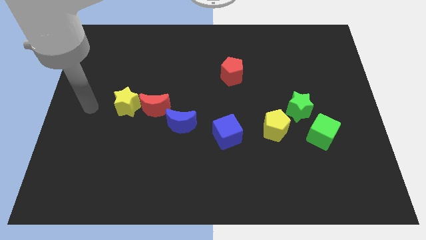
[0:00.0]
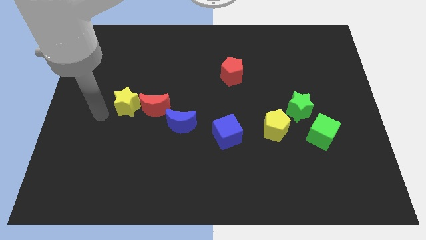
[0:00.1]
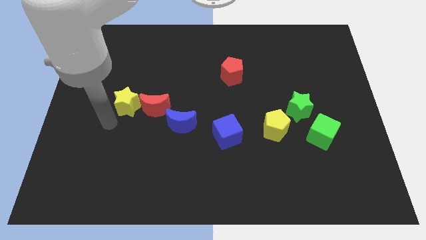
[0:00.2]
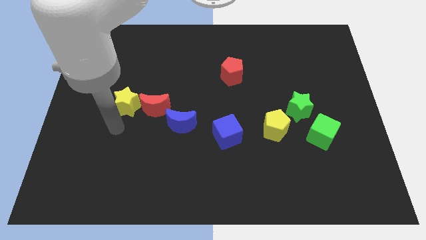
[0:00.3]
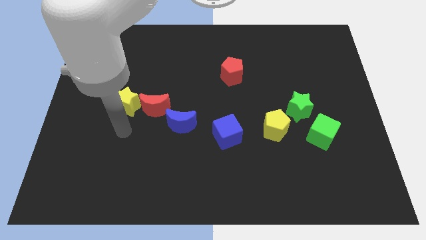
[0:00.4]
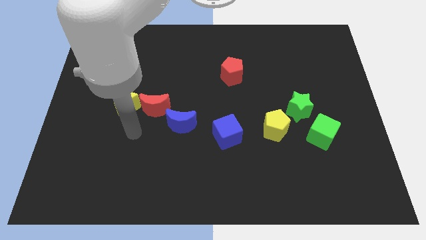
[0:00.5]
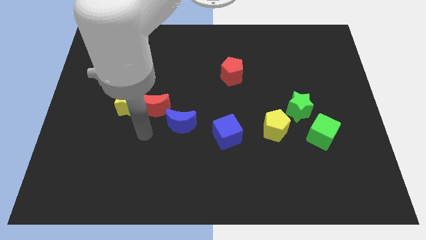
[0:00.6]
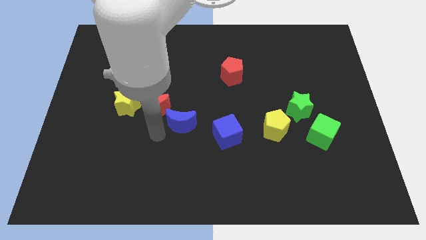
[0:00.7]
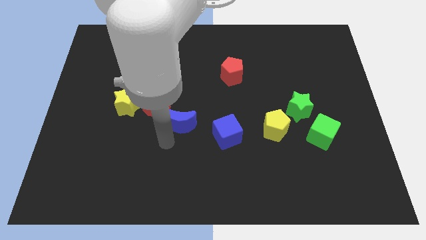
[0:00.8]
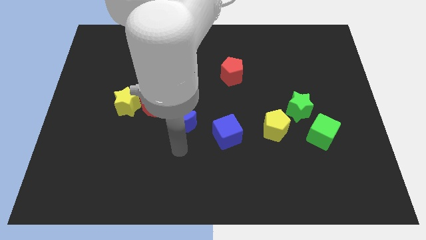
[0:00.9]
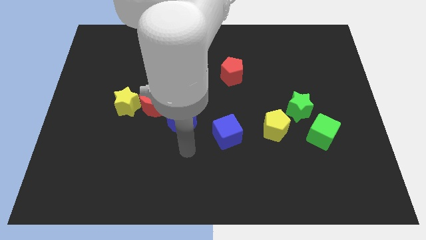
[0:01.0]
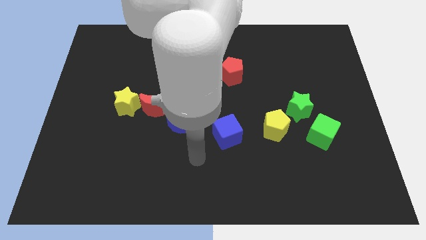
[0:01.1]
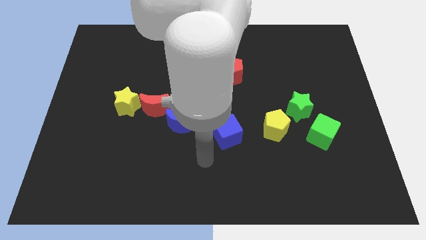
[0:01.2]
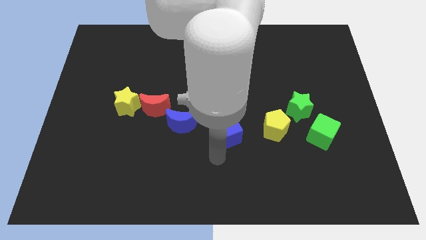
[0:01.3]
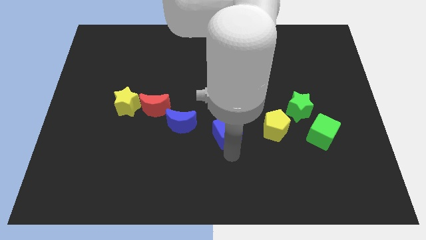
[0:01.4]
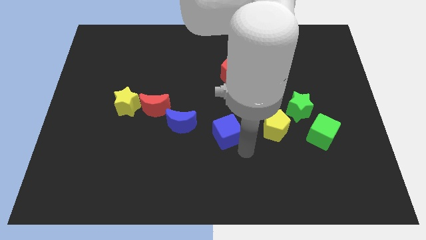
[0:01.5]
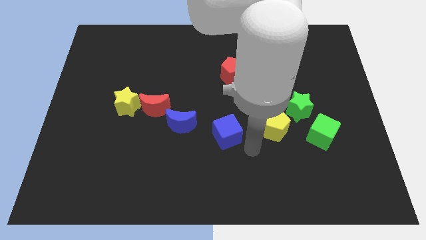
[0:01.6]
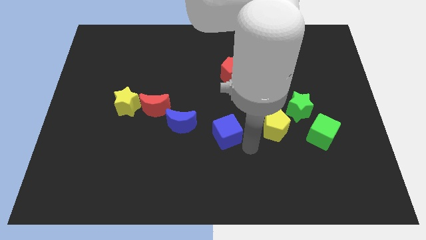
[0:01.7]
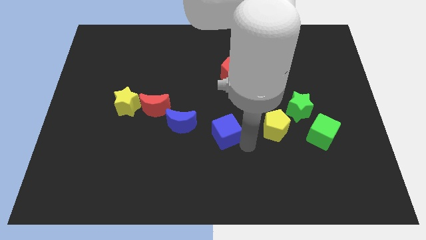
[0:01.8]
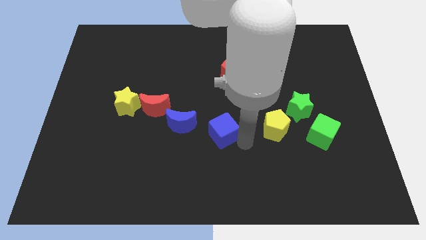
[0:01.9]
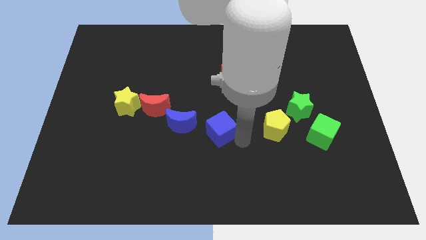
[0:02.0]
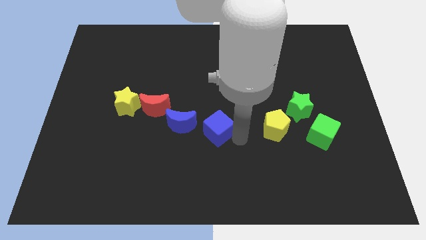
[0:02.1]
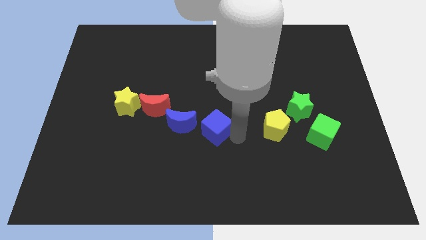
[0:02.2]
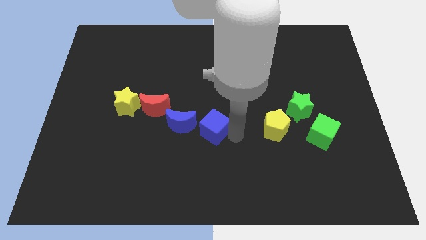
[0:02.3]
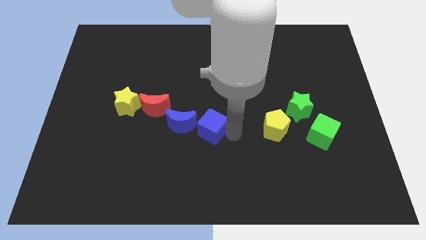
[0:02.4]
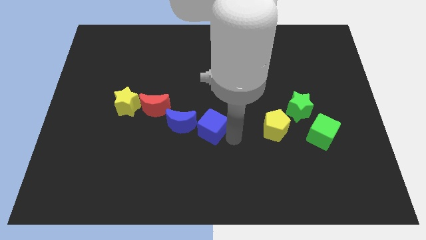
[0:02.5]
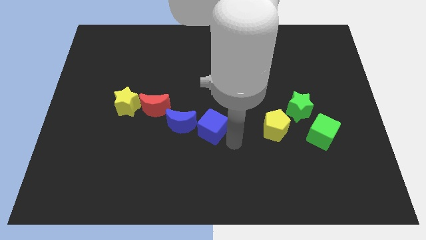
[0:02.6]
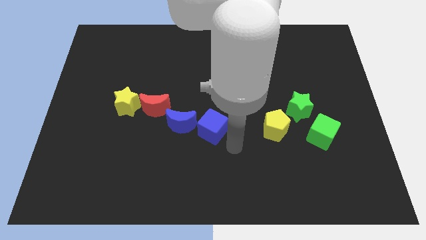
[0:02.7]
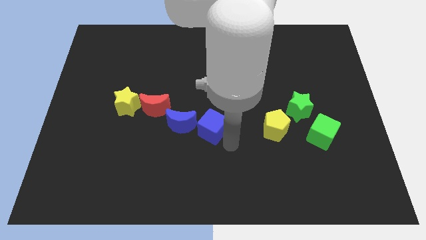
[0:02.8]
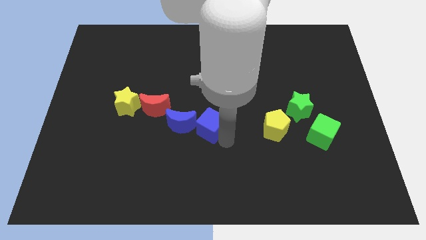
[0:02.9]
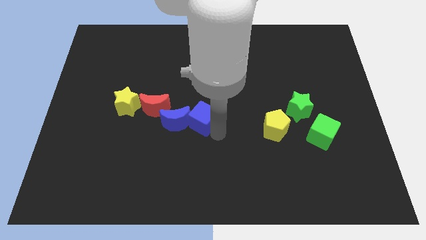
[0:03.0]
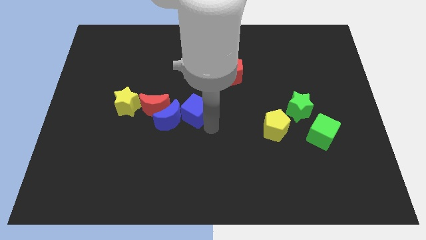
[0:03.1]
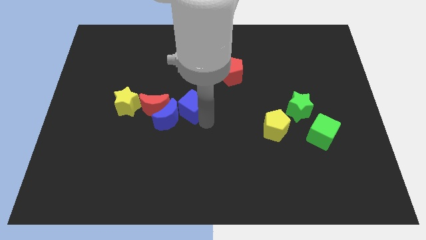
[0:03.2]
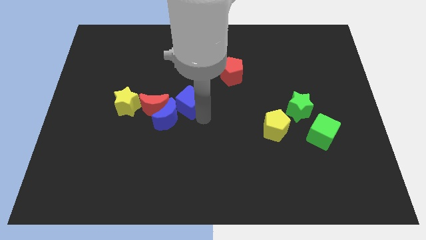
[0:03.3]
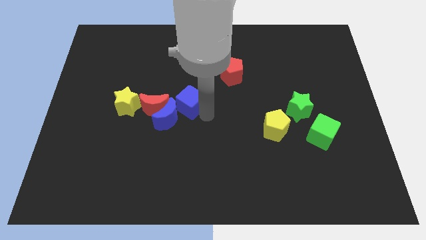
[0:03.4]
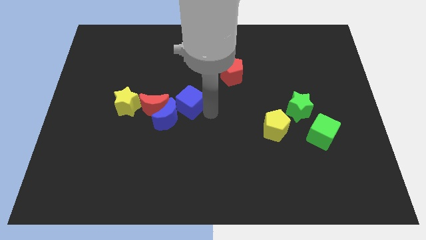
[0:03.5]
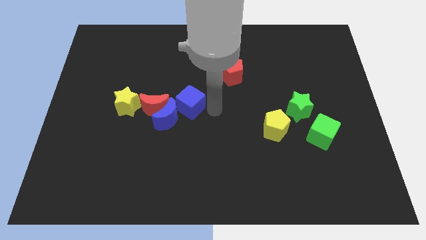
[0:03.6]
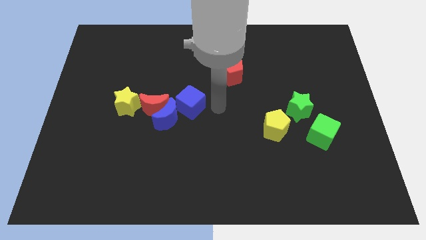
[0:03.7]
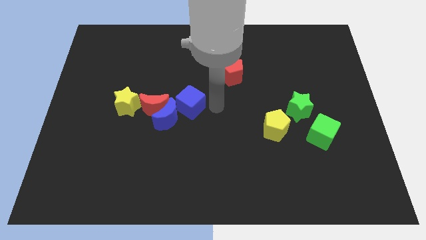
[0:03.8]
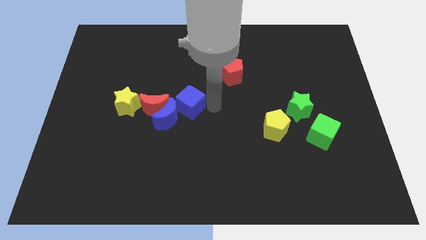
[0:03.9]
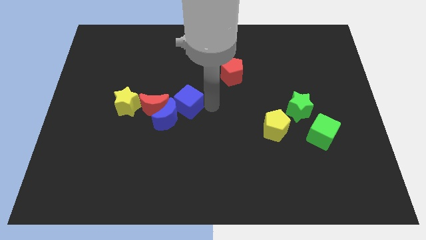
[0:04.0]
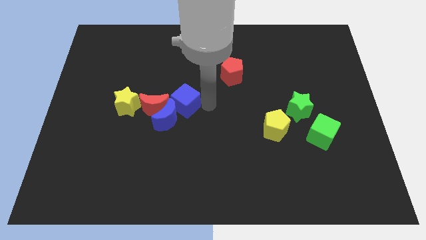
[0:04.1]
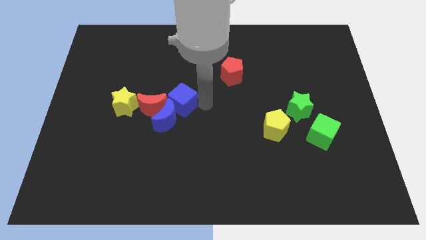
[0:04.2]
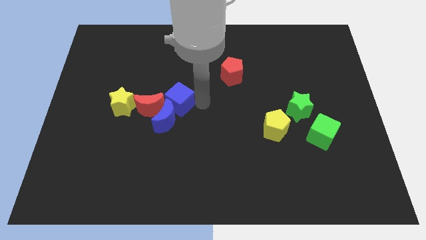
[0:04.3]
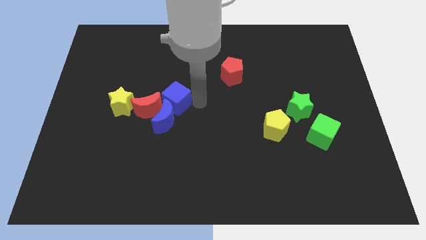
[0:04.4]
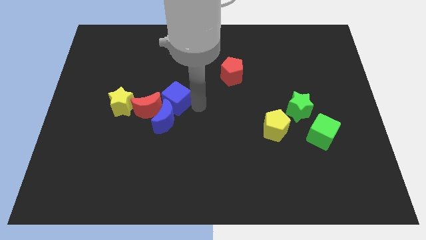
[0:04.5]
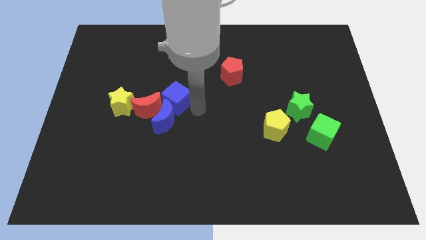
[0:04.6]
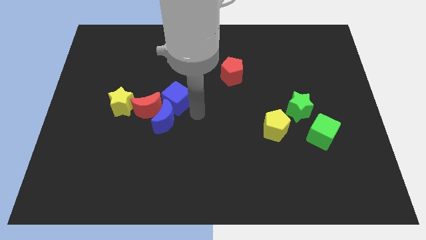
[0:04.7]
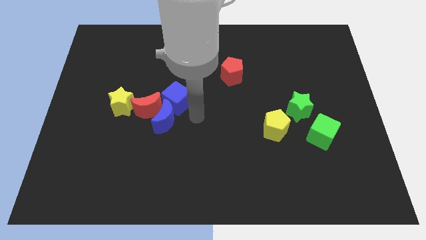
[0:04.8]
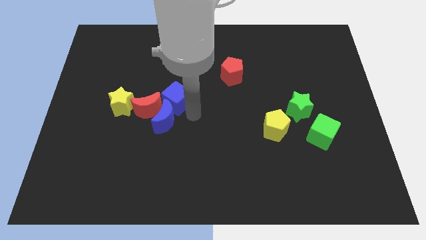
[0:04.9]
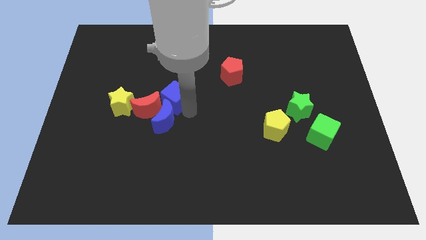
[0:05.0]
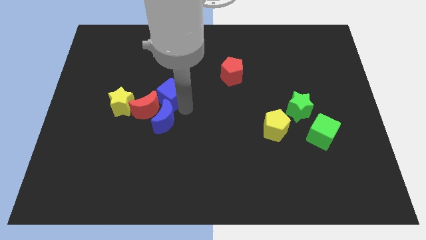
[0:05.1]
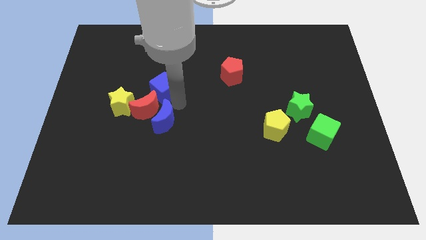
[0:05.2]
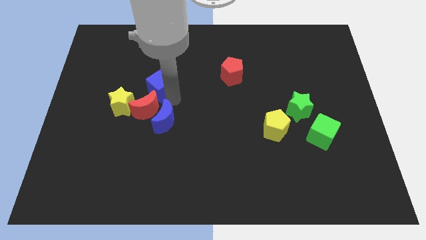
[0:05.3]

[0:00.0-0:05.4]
push the blue cube upwards and then left

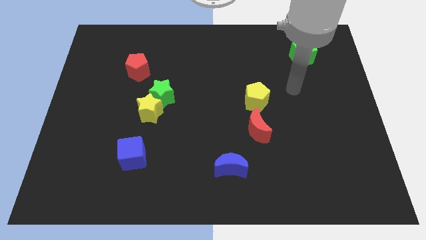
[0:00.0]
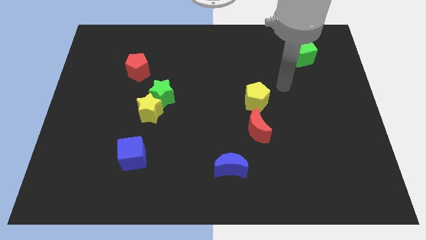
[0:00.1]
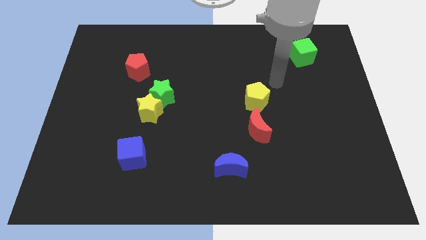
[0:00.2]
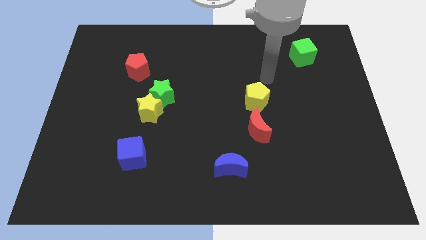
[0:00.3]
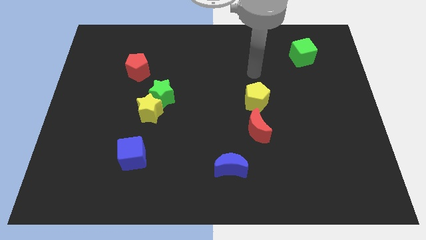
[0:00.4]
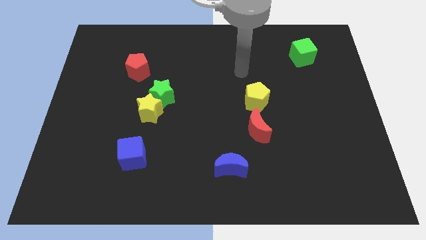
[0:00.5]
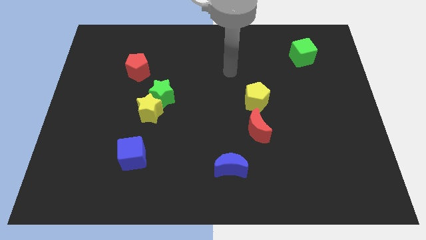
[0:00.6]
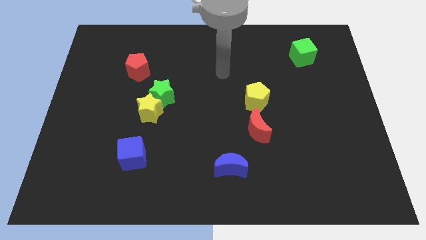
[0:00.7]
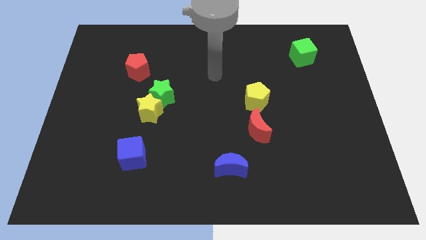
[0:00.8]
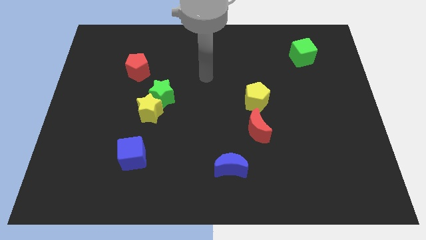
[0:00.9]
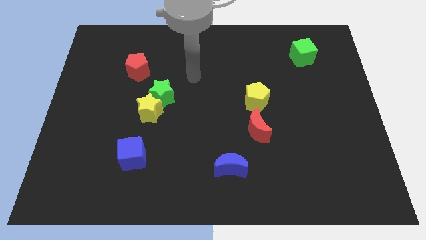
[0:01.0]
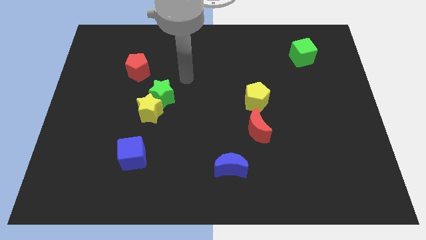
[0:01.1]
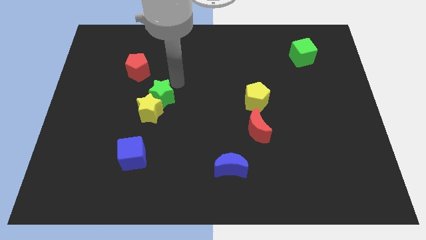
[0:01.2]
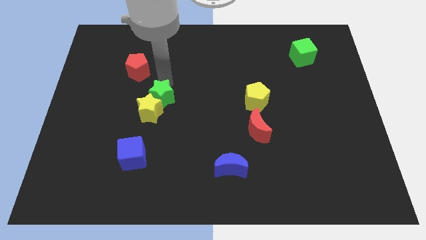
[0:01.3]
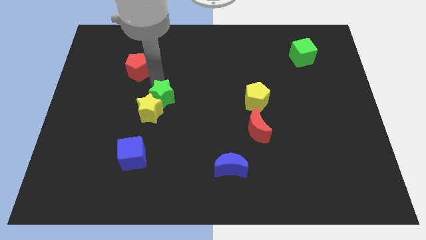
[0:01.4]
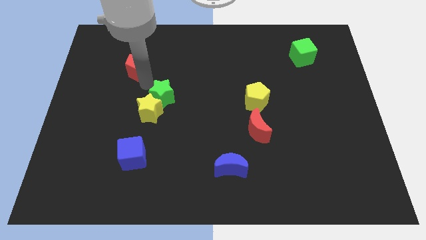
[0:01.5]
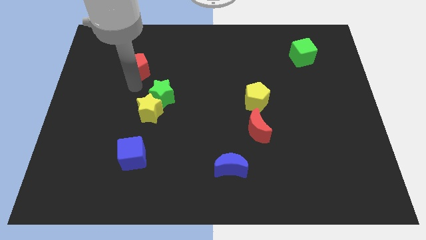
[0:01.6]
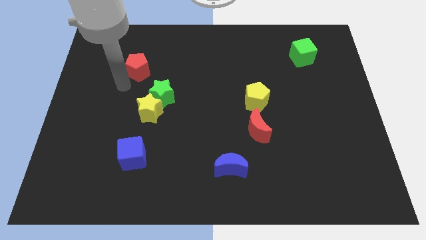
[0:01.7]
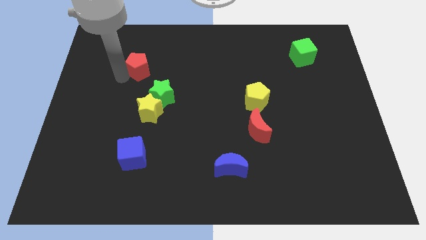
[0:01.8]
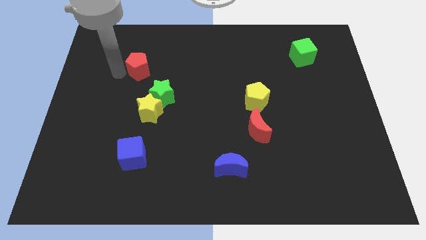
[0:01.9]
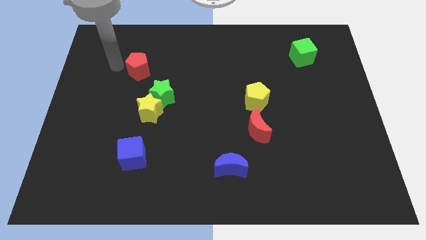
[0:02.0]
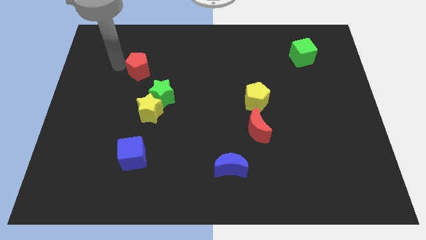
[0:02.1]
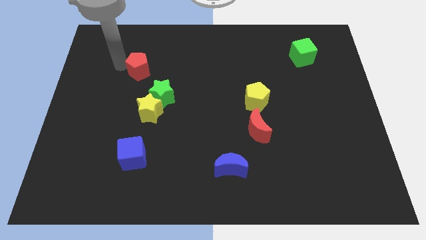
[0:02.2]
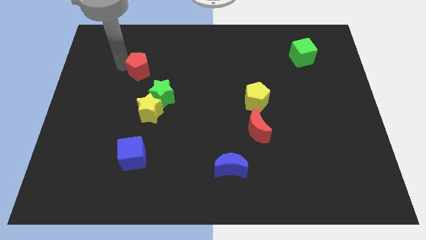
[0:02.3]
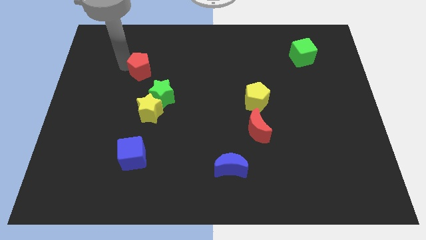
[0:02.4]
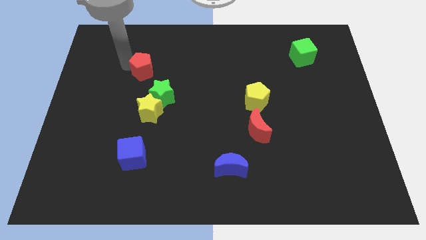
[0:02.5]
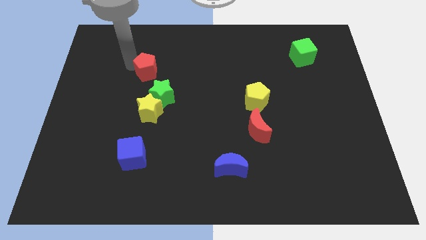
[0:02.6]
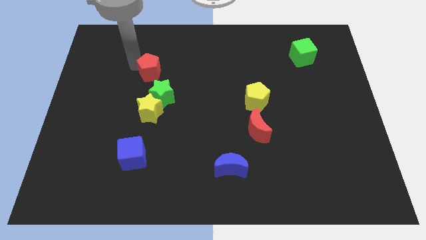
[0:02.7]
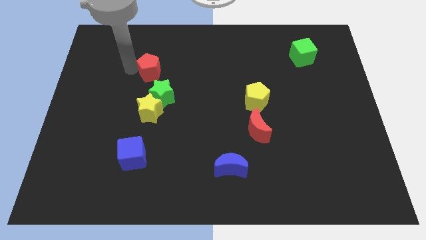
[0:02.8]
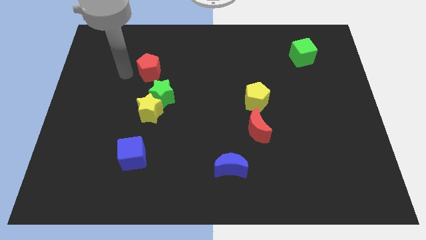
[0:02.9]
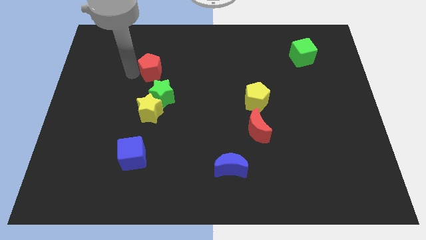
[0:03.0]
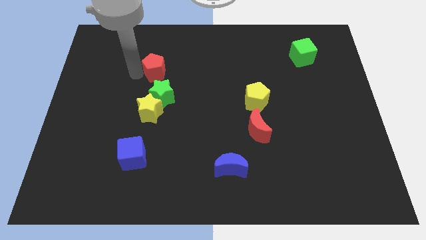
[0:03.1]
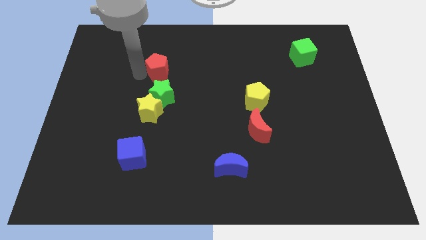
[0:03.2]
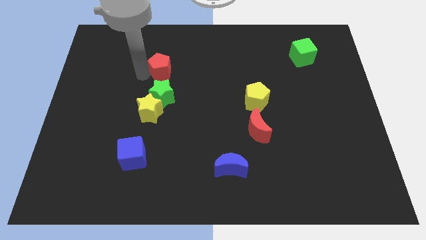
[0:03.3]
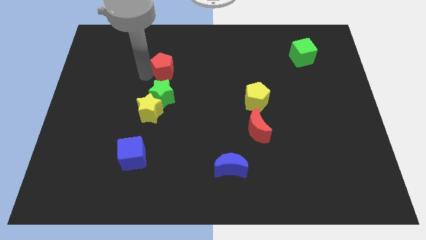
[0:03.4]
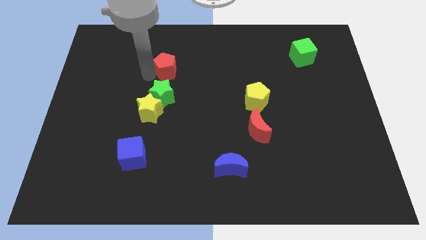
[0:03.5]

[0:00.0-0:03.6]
move the red pentagon to the right a little bit
